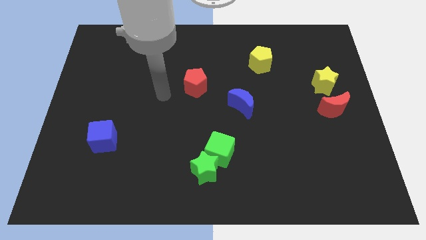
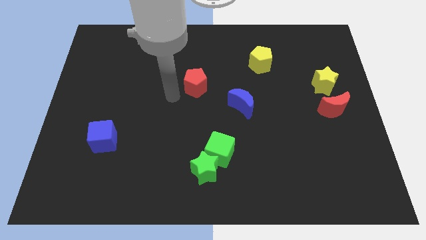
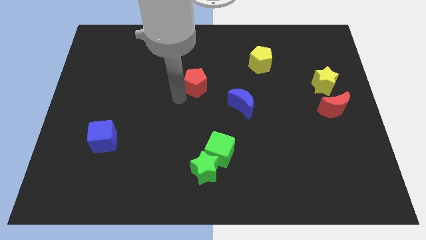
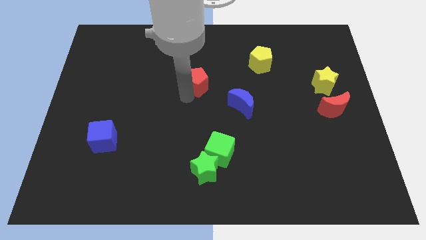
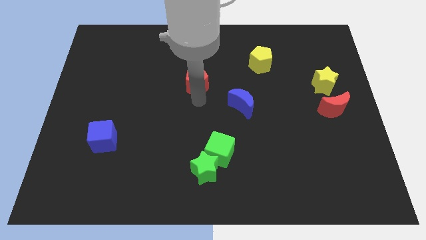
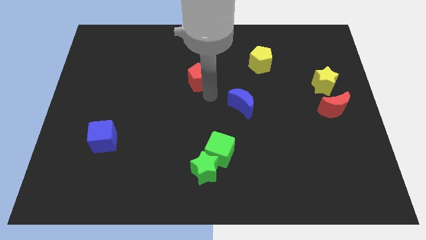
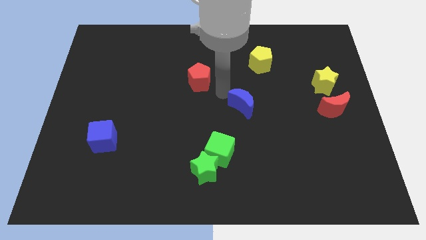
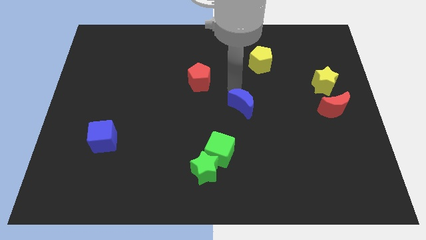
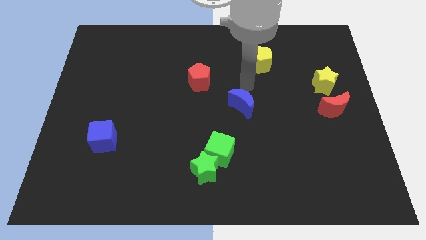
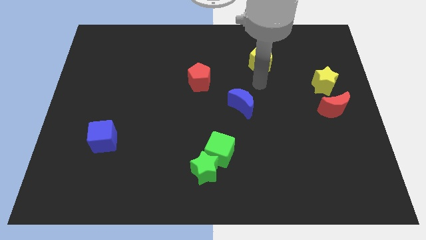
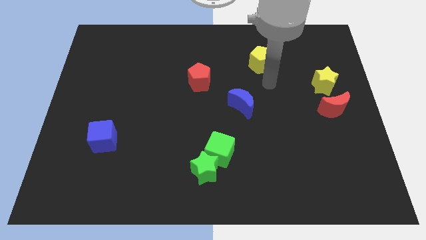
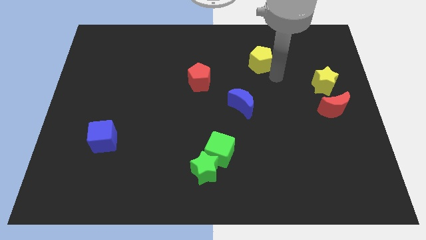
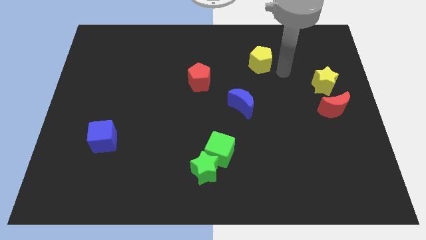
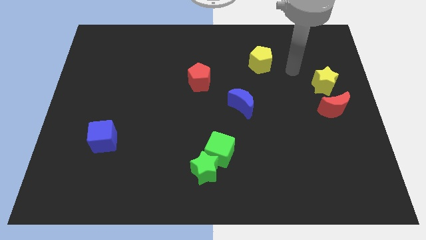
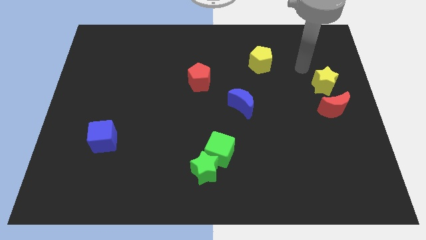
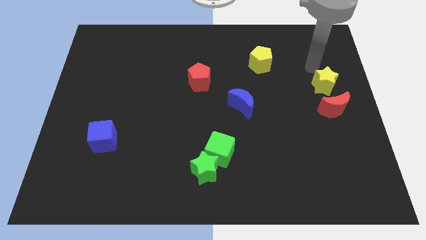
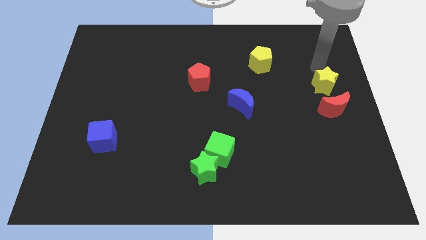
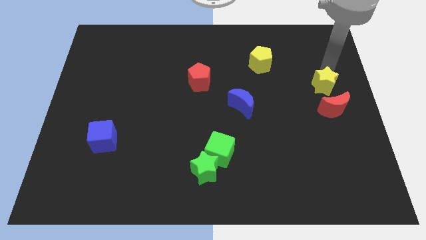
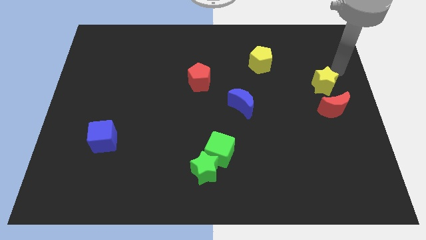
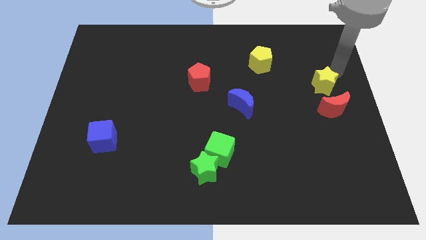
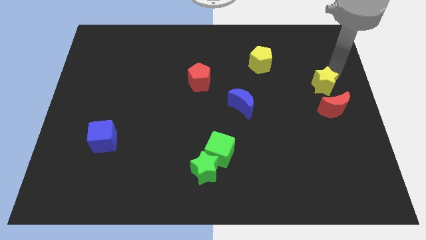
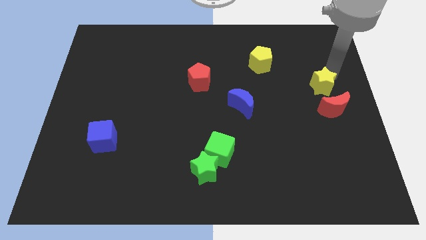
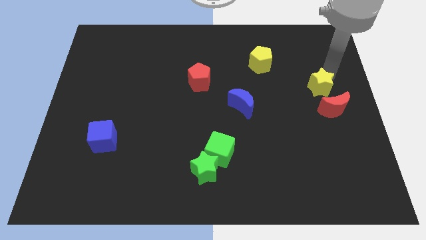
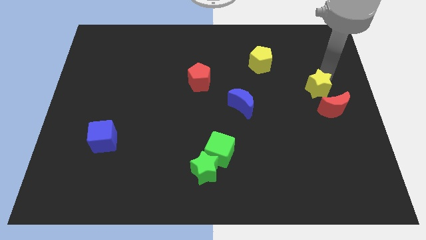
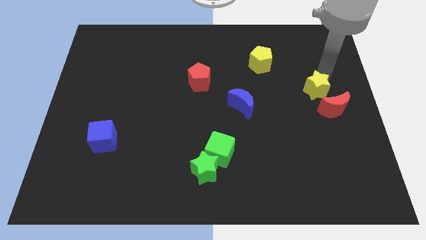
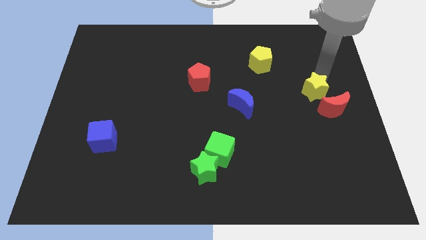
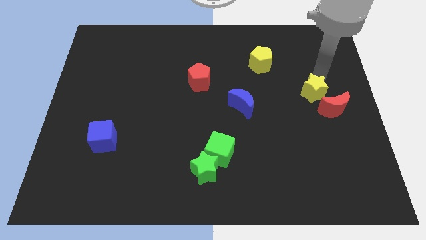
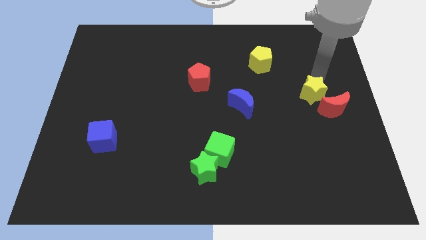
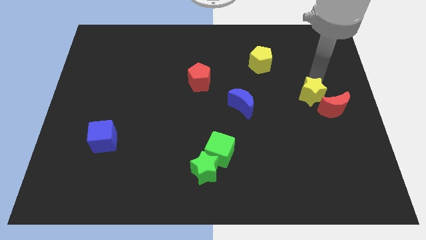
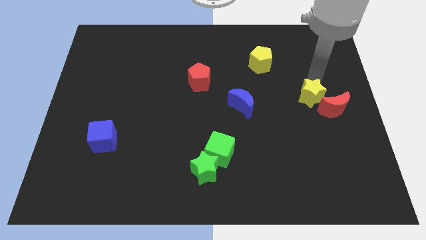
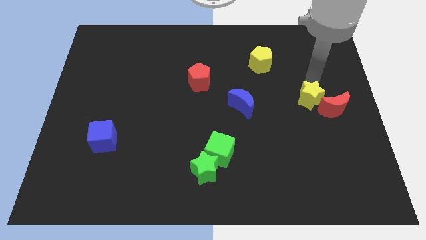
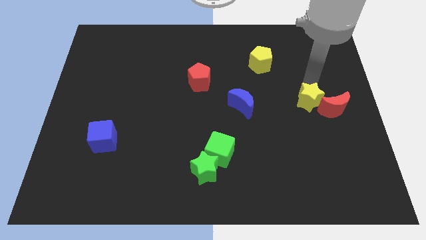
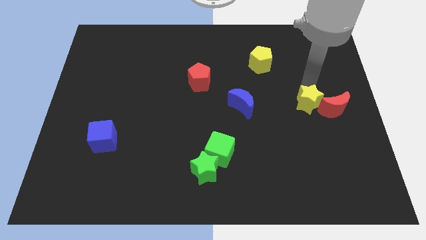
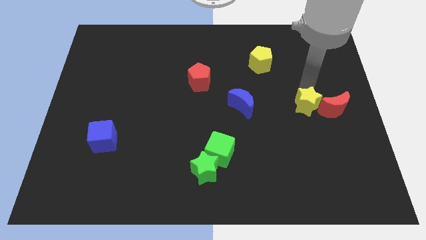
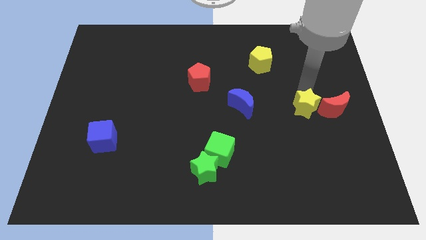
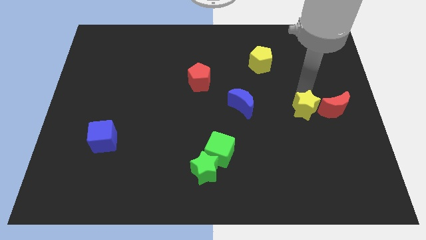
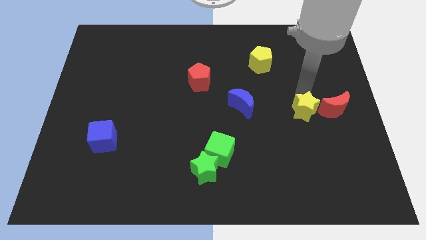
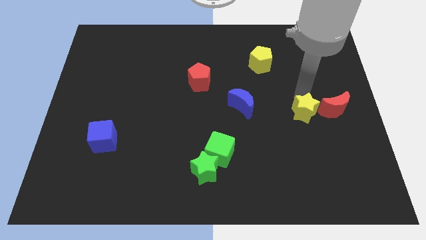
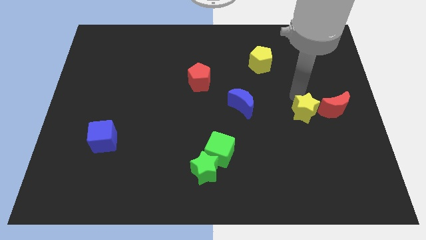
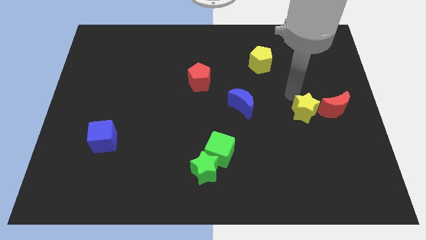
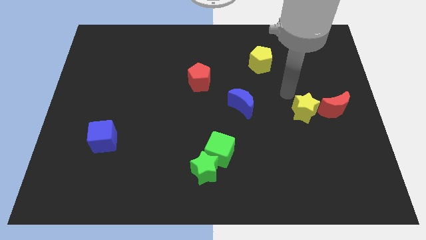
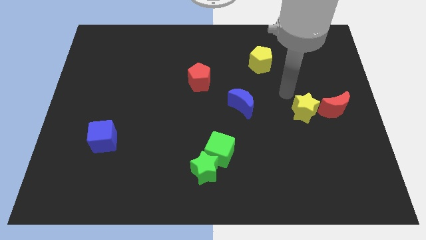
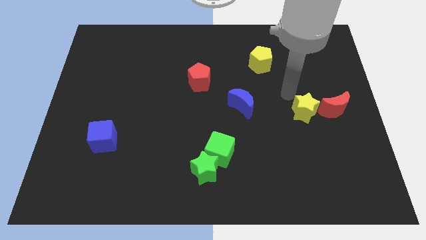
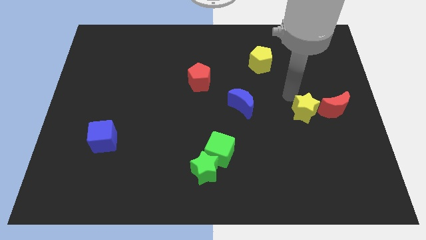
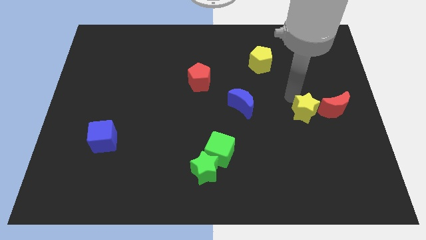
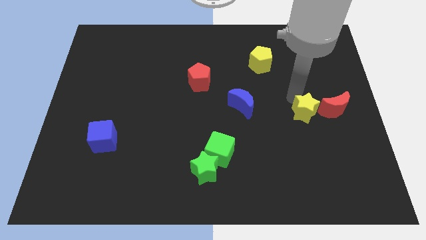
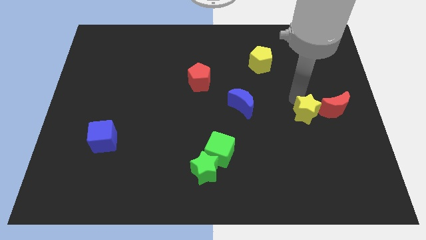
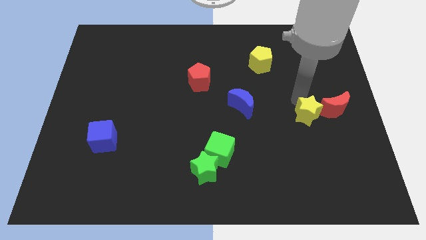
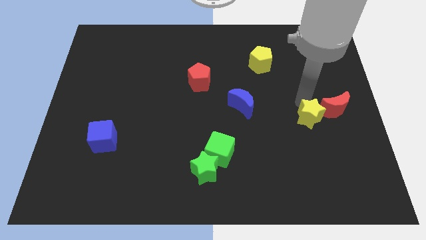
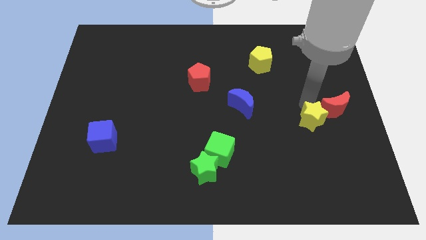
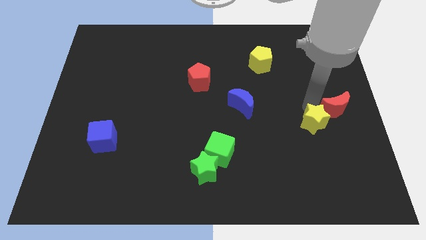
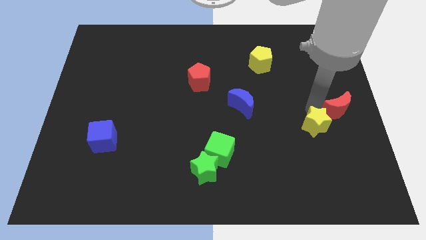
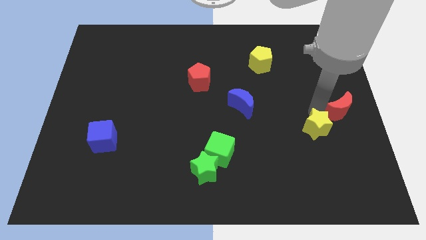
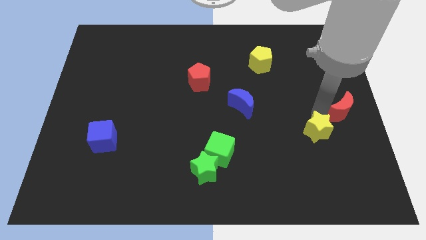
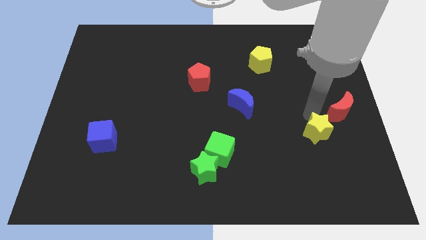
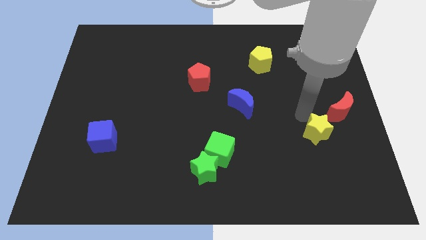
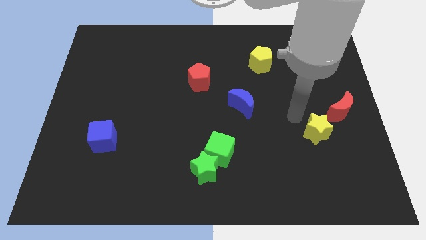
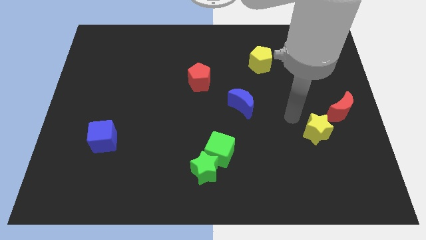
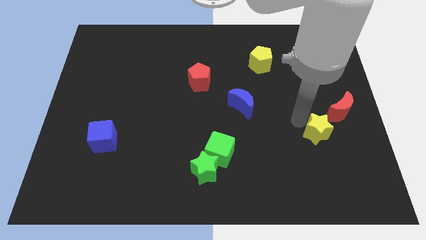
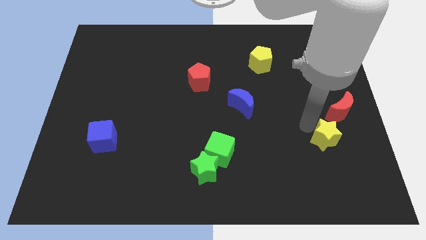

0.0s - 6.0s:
slide the yellow star below the red moon

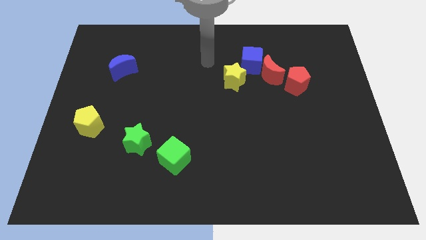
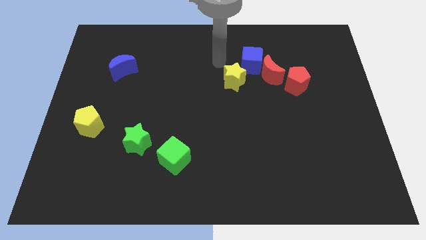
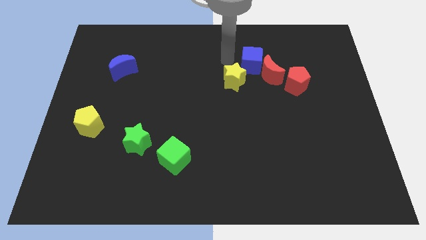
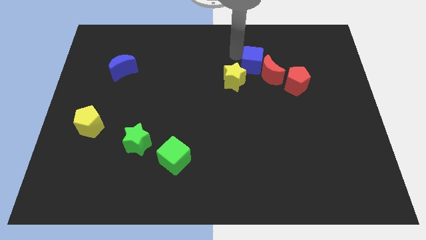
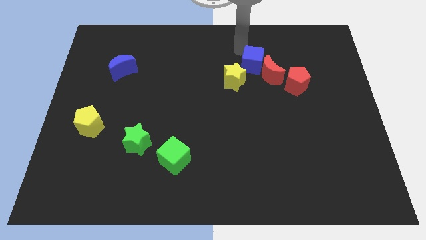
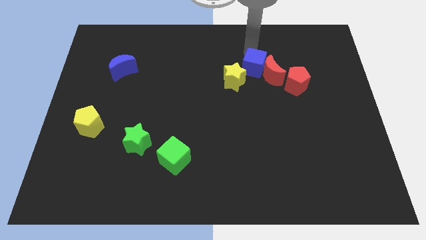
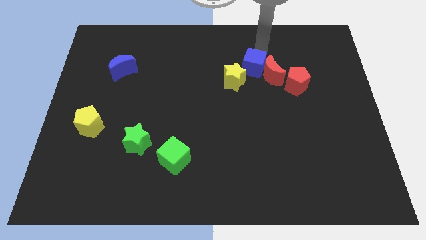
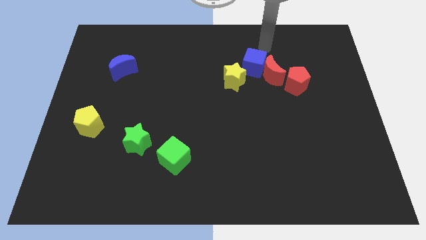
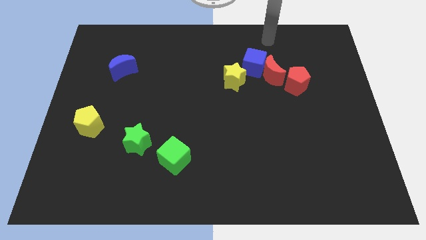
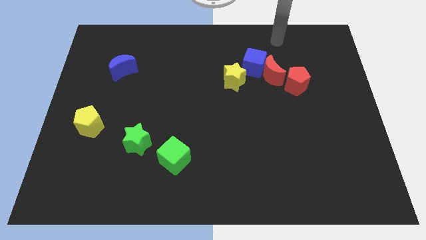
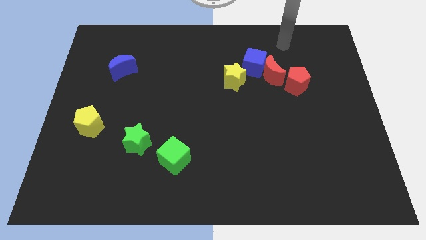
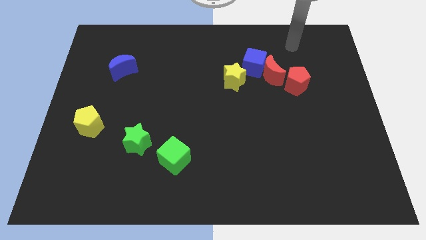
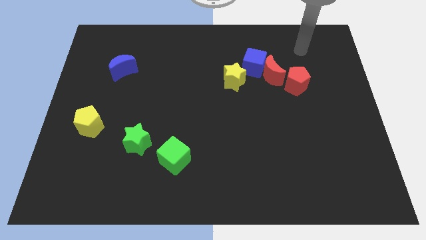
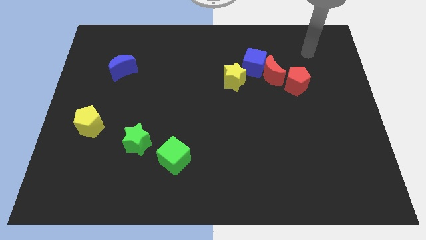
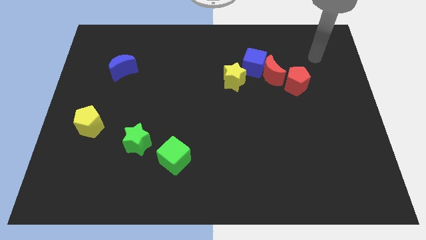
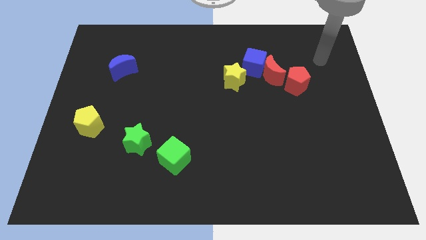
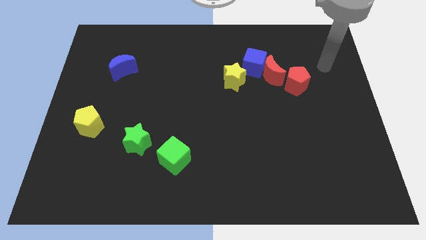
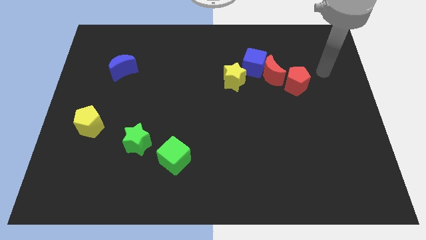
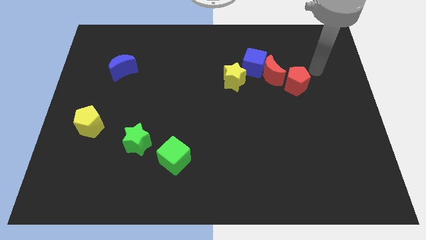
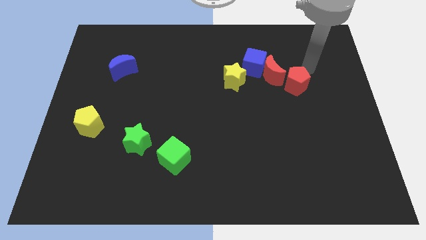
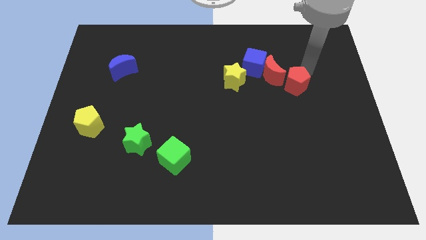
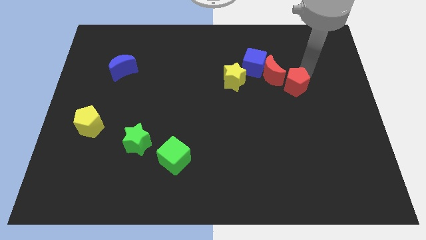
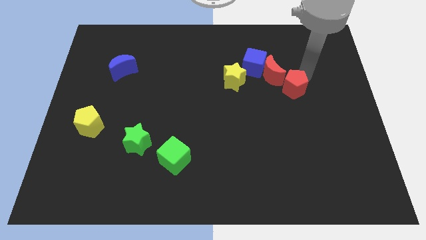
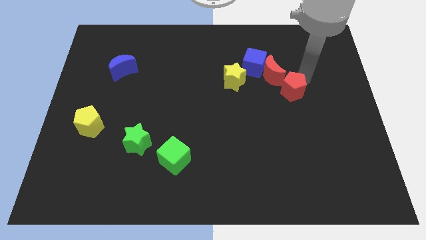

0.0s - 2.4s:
move the red pentagon to the bottom side of the red moon
